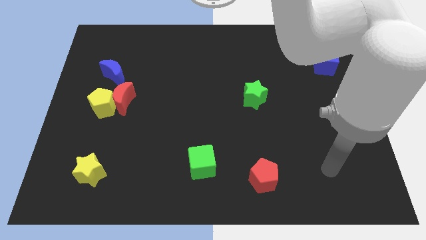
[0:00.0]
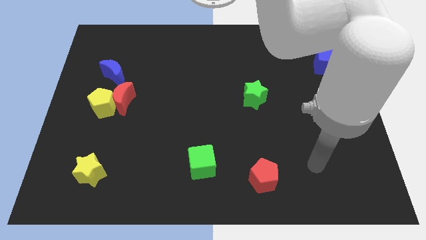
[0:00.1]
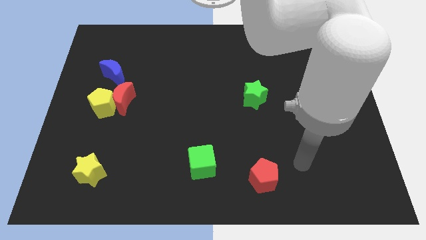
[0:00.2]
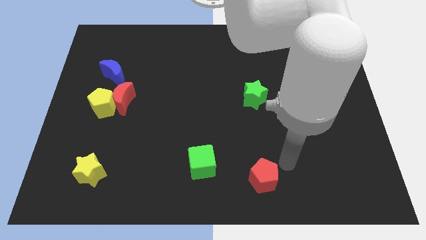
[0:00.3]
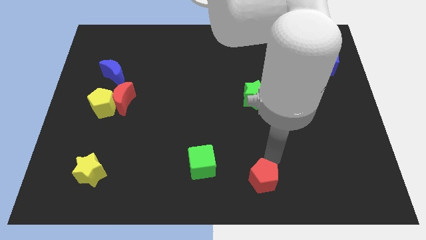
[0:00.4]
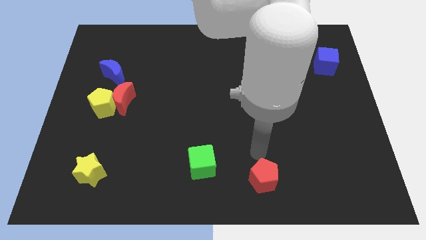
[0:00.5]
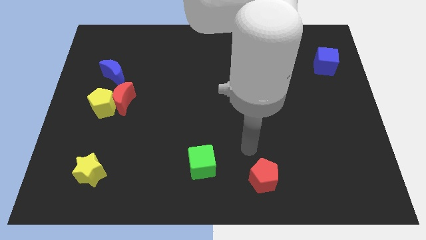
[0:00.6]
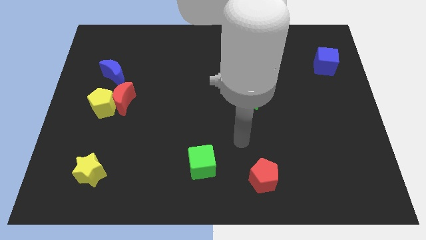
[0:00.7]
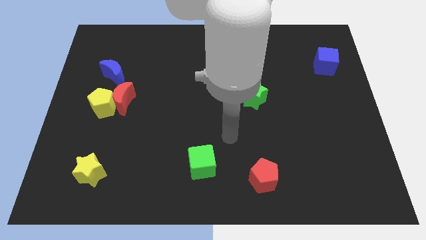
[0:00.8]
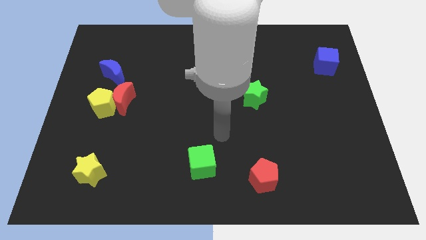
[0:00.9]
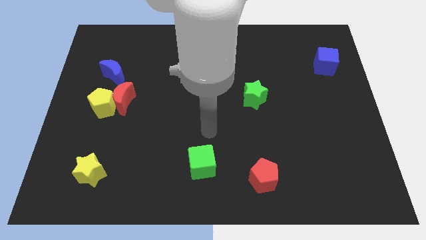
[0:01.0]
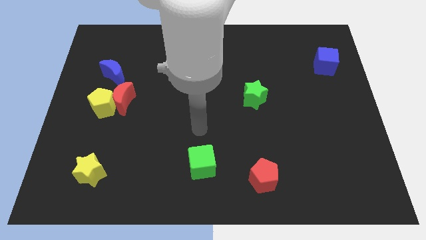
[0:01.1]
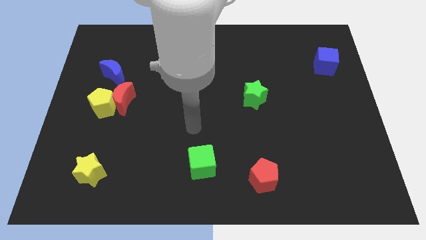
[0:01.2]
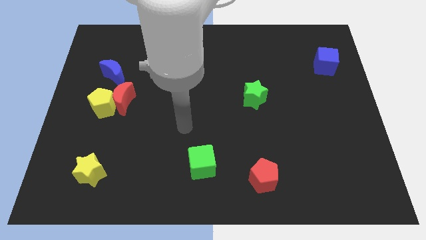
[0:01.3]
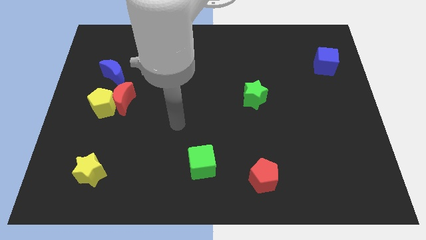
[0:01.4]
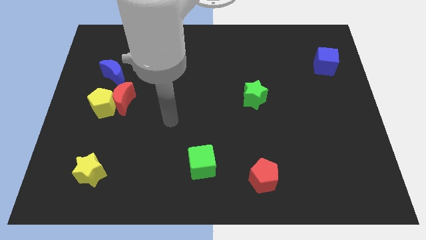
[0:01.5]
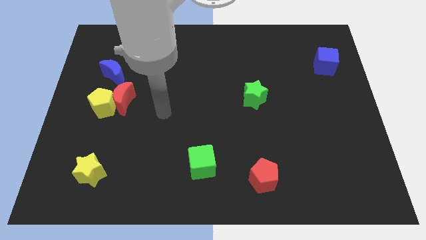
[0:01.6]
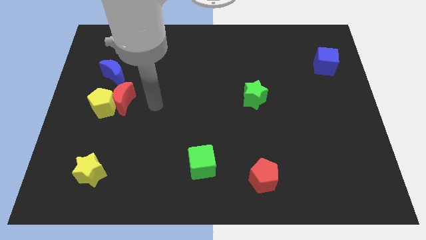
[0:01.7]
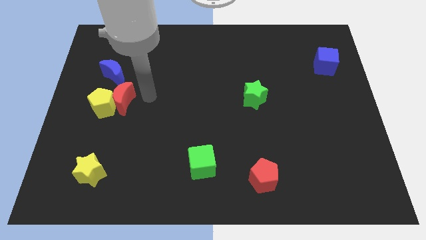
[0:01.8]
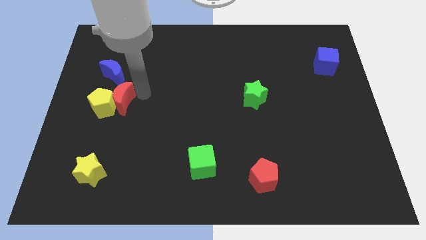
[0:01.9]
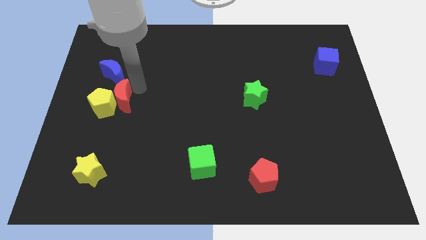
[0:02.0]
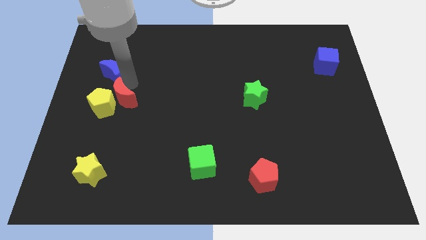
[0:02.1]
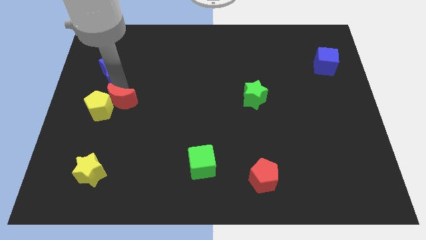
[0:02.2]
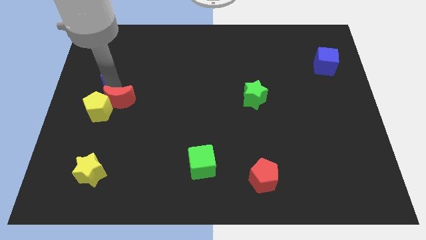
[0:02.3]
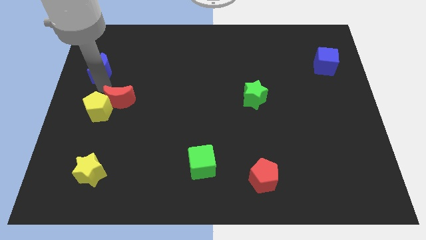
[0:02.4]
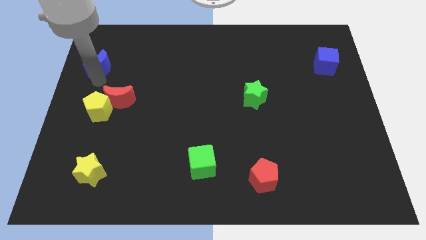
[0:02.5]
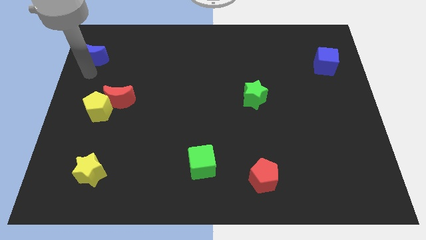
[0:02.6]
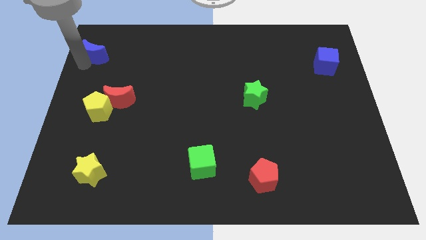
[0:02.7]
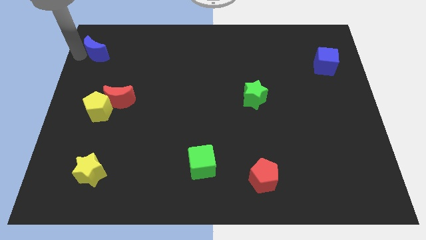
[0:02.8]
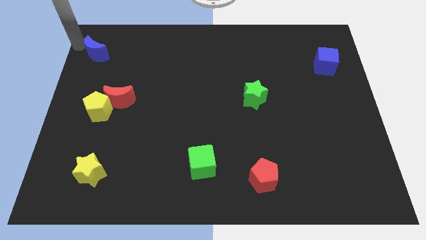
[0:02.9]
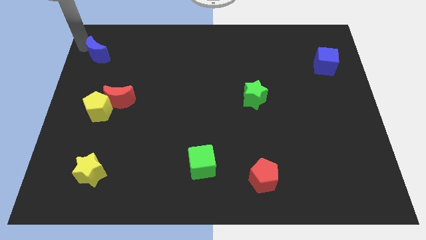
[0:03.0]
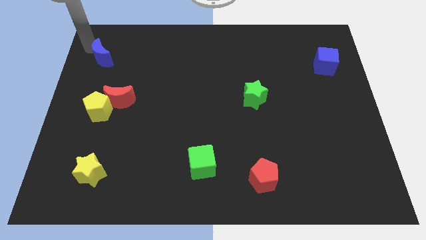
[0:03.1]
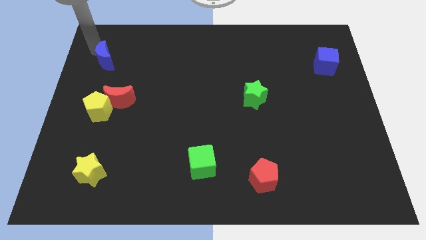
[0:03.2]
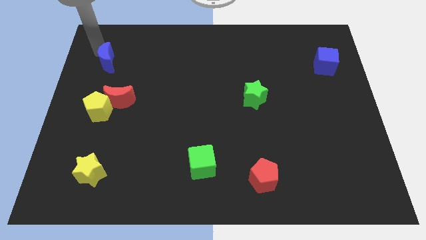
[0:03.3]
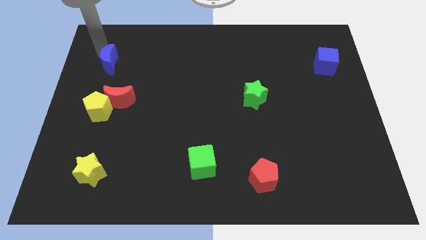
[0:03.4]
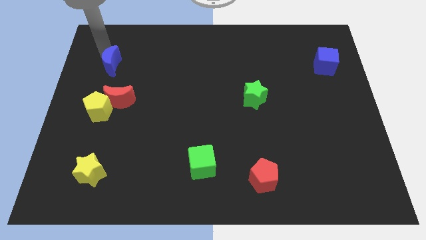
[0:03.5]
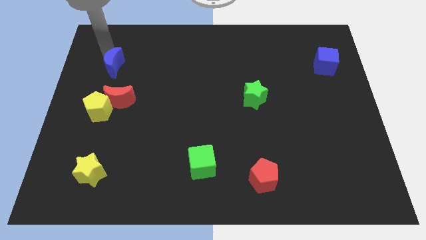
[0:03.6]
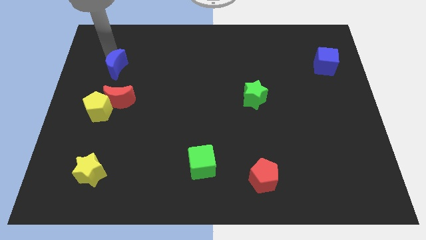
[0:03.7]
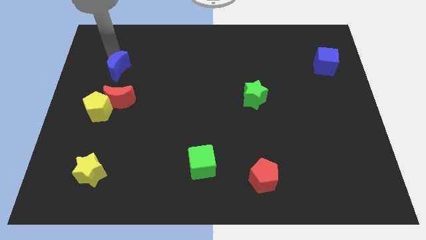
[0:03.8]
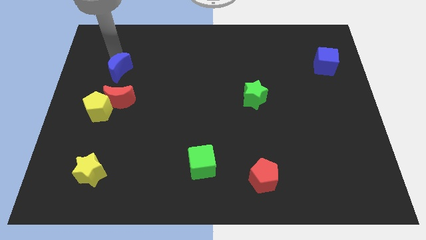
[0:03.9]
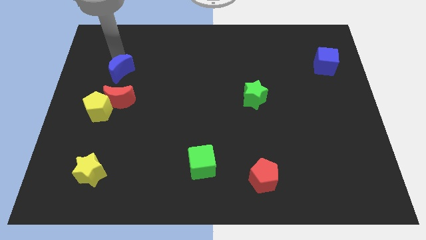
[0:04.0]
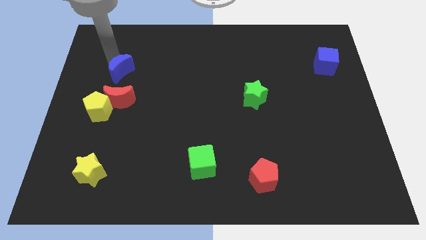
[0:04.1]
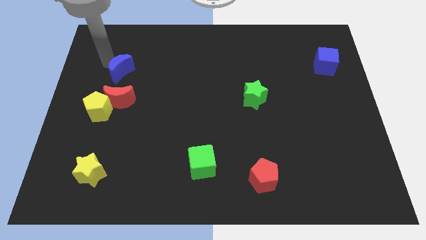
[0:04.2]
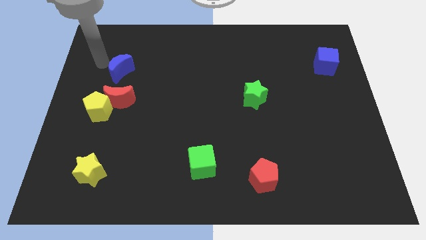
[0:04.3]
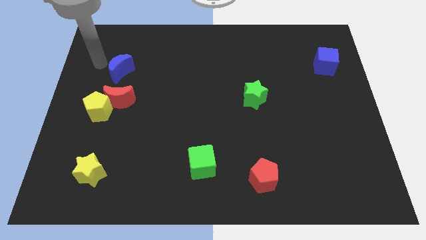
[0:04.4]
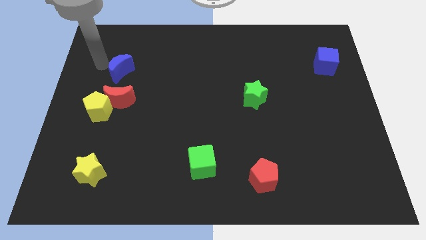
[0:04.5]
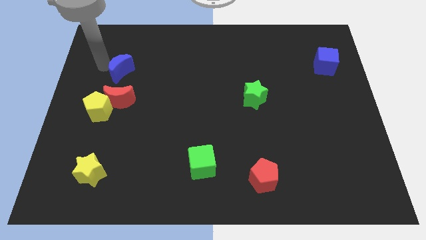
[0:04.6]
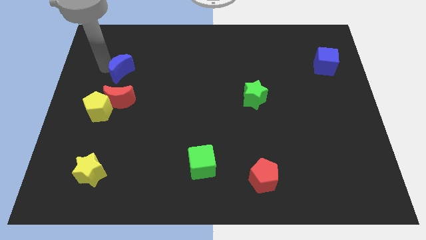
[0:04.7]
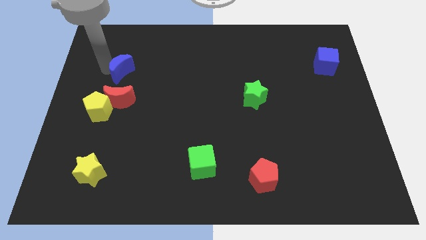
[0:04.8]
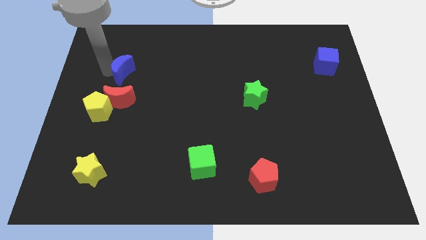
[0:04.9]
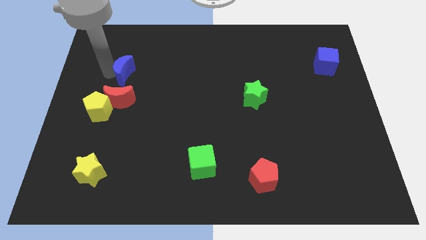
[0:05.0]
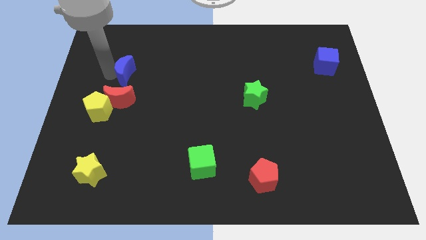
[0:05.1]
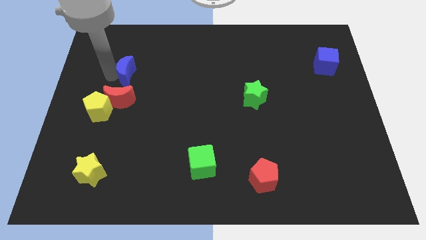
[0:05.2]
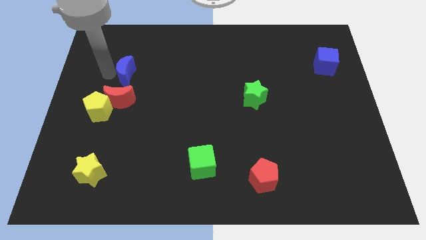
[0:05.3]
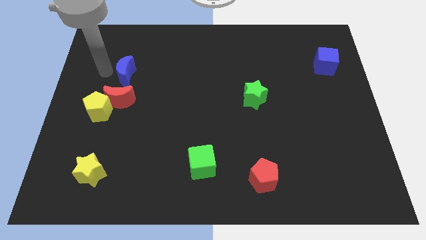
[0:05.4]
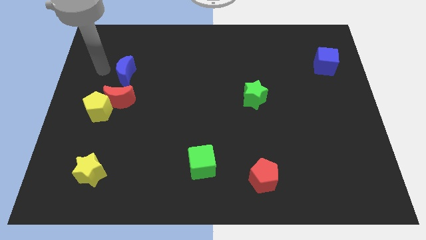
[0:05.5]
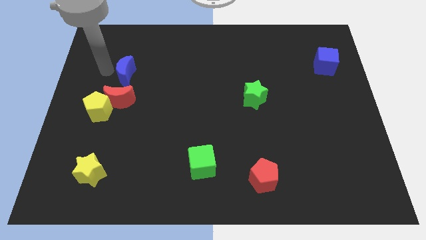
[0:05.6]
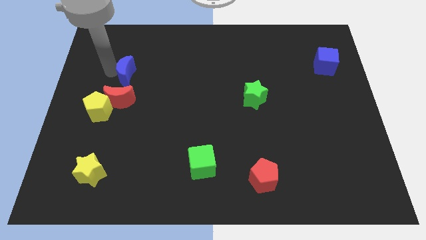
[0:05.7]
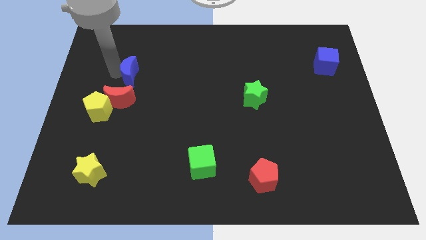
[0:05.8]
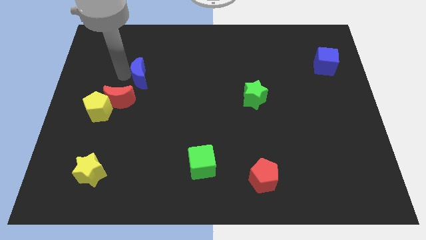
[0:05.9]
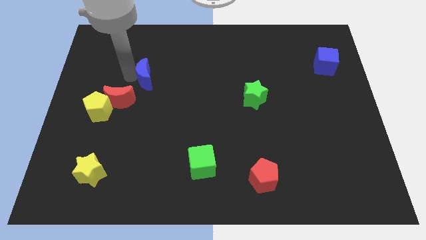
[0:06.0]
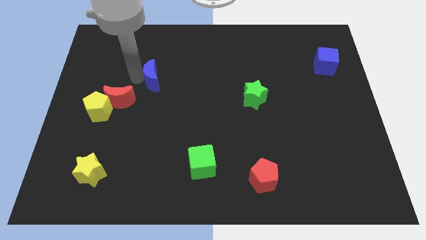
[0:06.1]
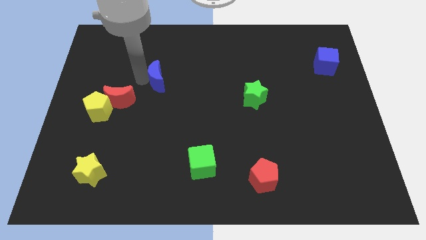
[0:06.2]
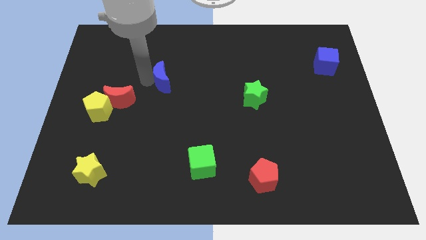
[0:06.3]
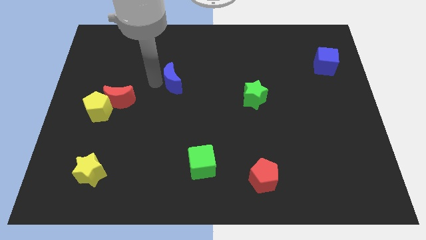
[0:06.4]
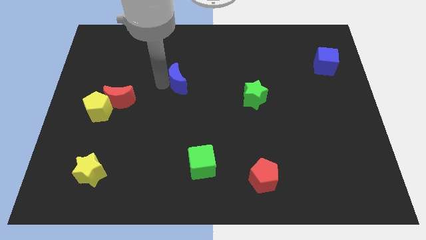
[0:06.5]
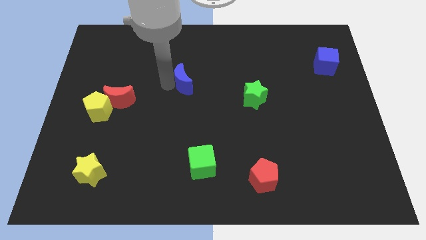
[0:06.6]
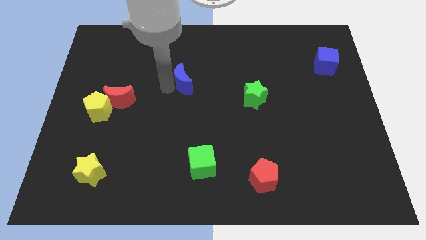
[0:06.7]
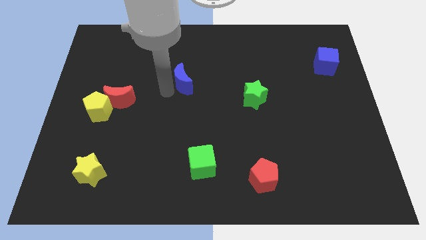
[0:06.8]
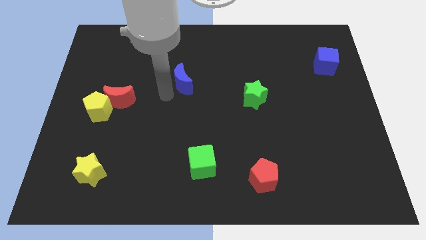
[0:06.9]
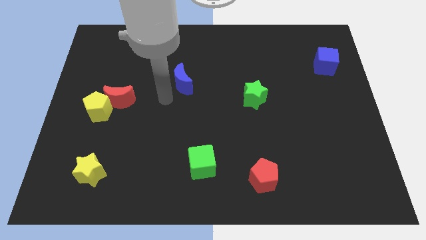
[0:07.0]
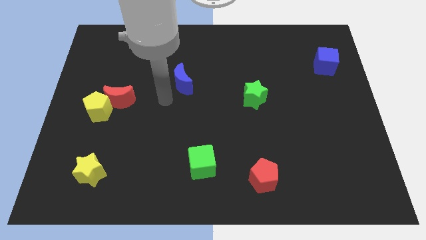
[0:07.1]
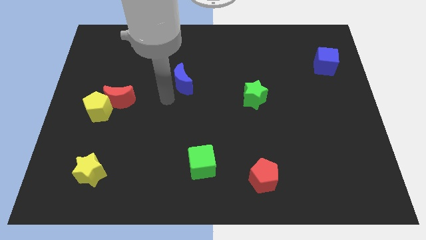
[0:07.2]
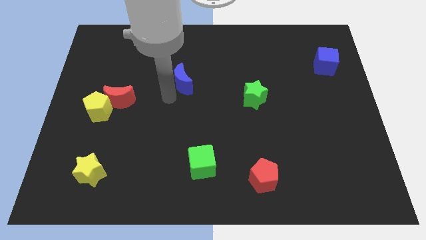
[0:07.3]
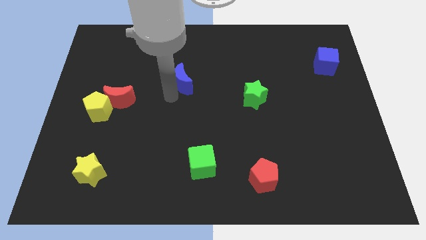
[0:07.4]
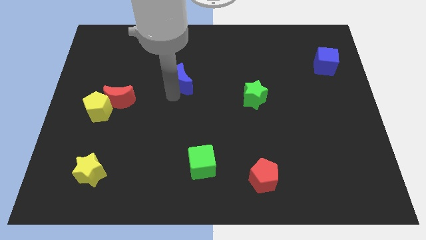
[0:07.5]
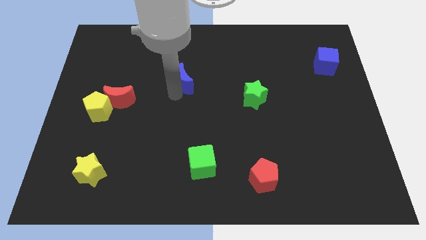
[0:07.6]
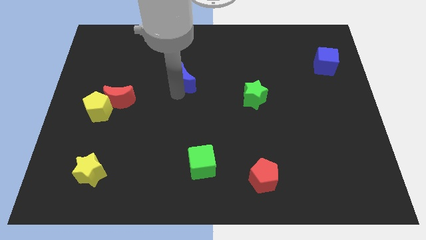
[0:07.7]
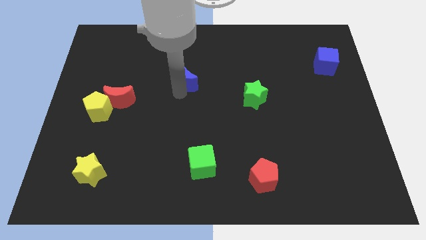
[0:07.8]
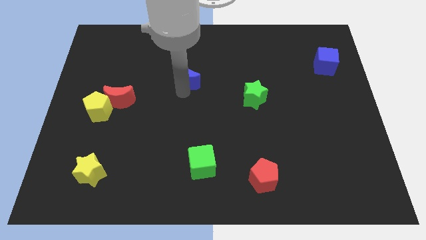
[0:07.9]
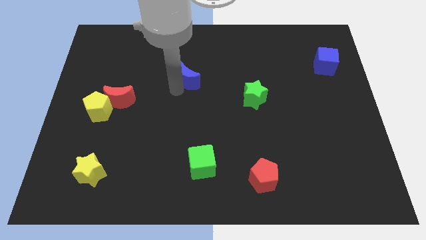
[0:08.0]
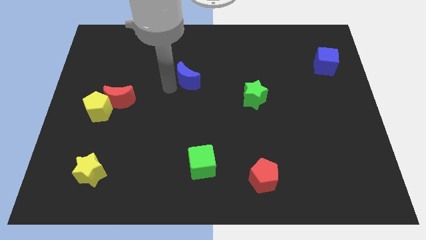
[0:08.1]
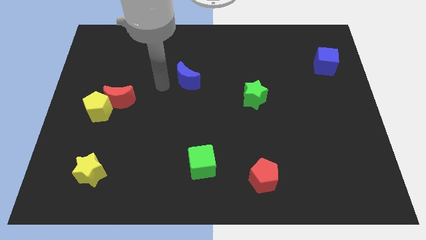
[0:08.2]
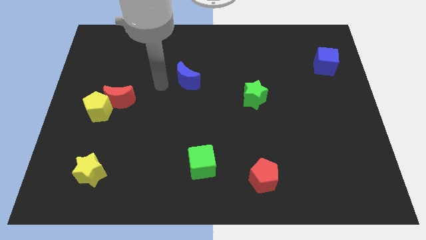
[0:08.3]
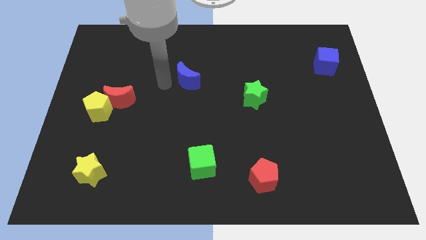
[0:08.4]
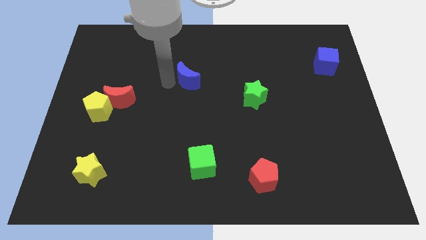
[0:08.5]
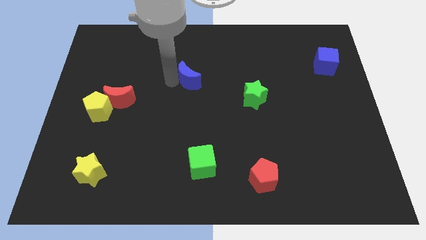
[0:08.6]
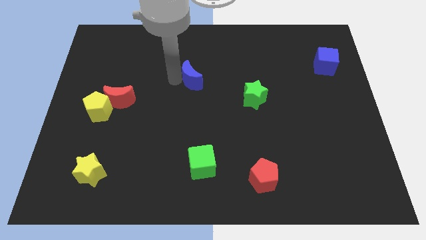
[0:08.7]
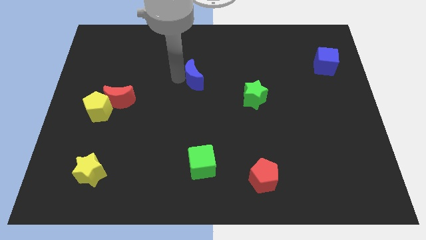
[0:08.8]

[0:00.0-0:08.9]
slide the blue moon right
